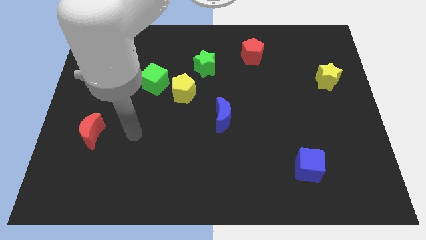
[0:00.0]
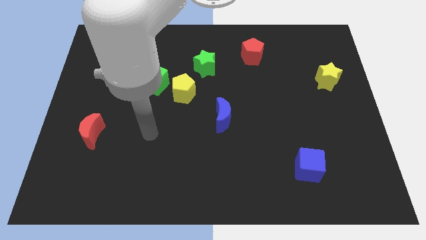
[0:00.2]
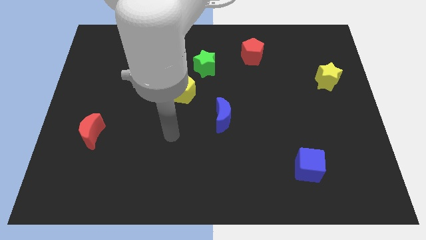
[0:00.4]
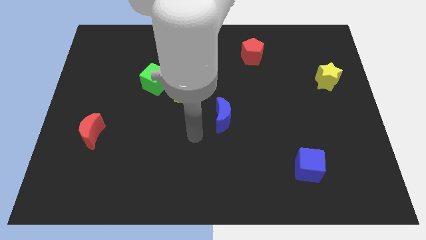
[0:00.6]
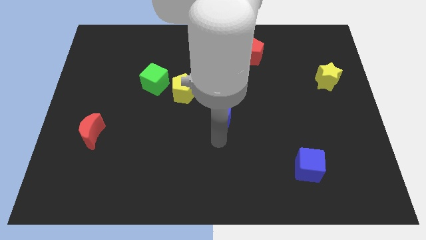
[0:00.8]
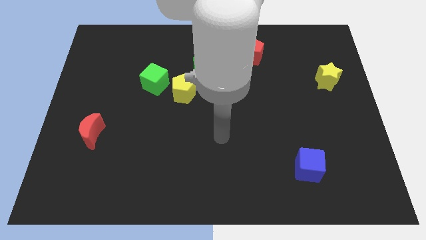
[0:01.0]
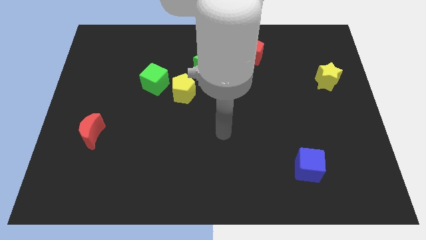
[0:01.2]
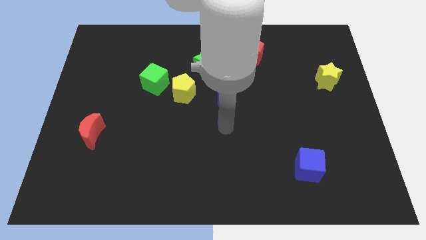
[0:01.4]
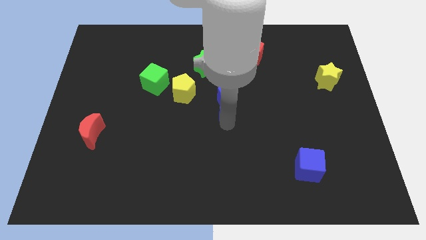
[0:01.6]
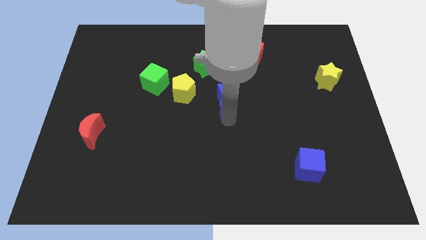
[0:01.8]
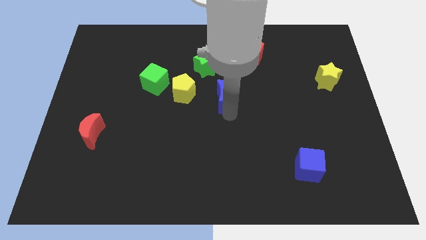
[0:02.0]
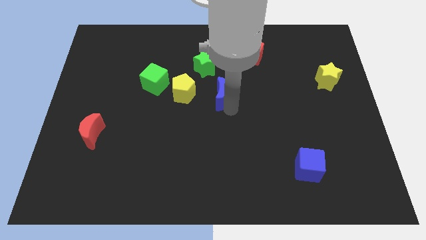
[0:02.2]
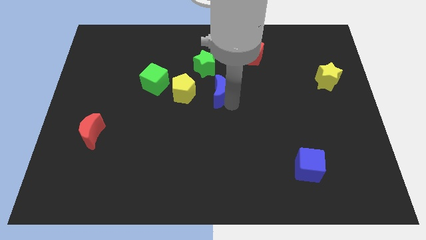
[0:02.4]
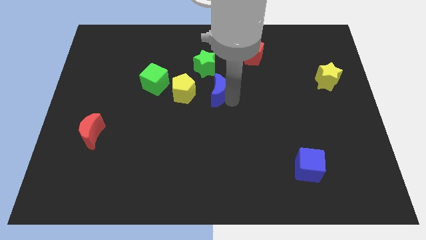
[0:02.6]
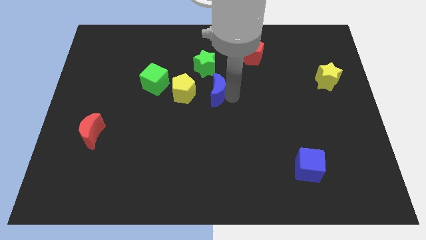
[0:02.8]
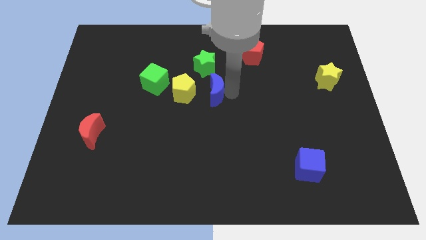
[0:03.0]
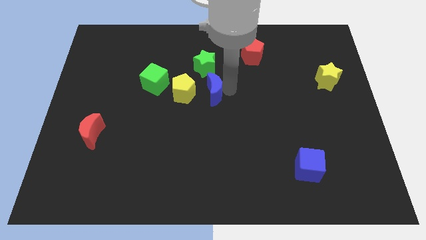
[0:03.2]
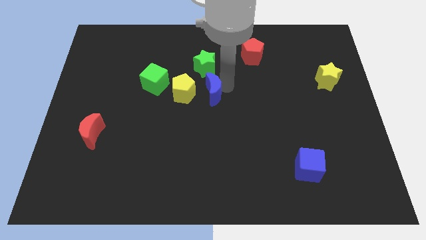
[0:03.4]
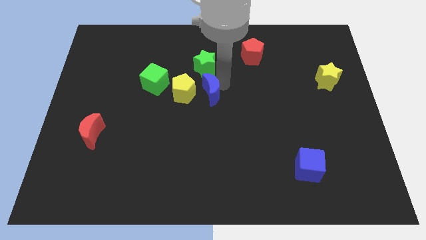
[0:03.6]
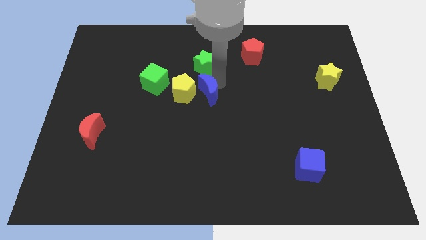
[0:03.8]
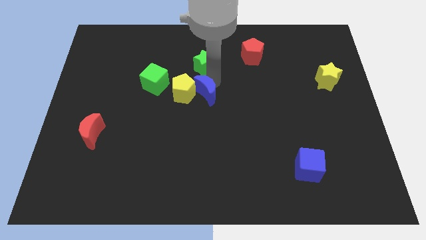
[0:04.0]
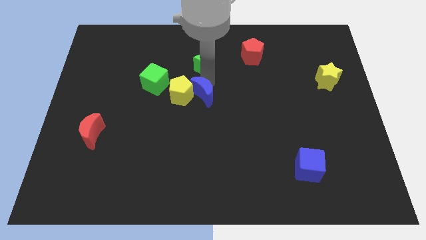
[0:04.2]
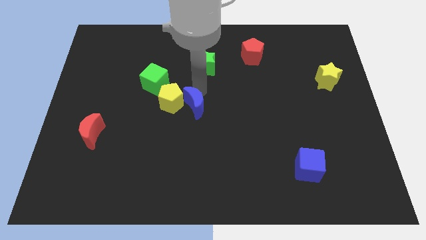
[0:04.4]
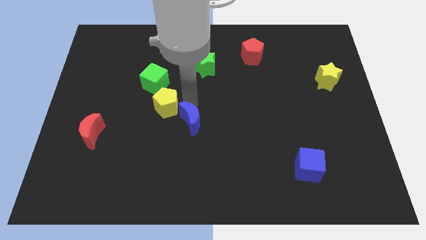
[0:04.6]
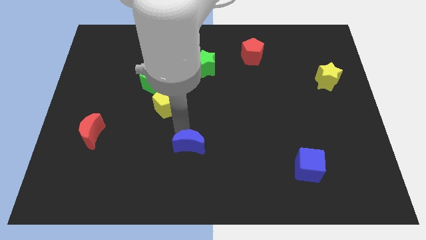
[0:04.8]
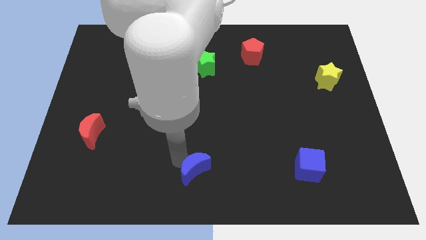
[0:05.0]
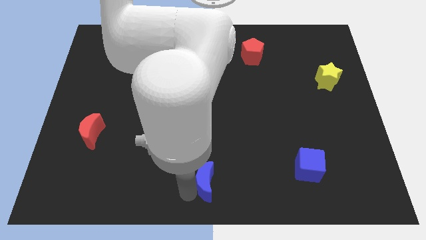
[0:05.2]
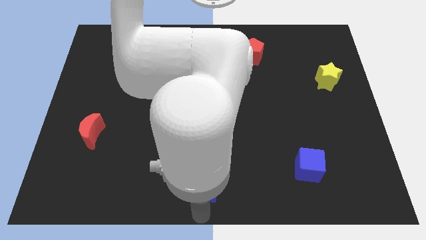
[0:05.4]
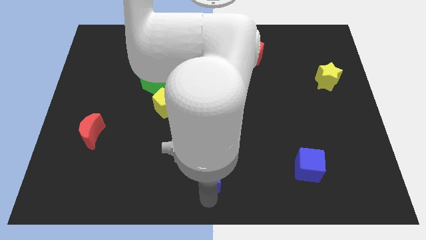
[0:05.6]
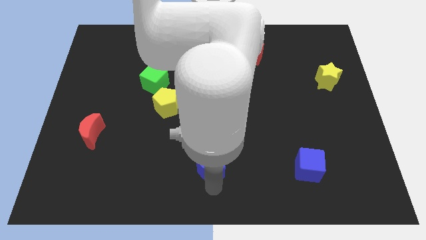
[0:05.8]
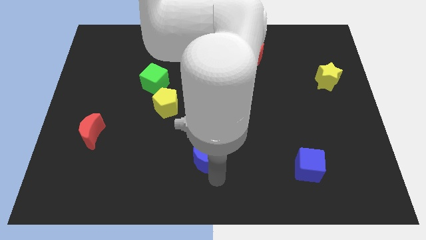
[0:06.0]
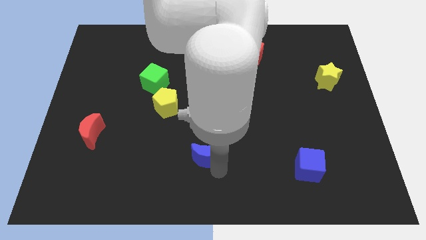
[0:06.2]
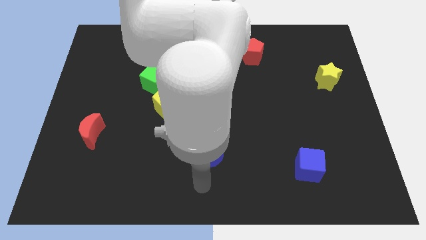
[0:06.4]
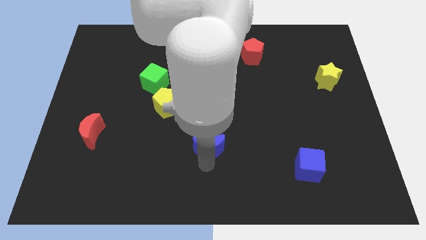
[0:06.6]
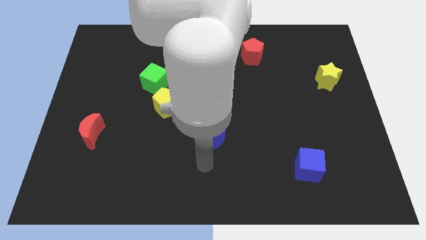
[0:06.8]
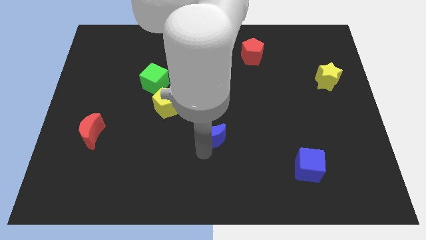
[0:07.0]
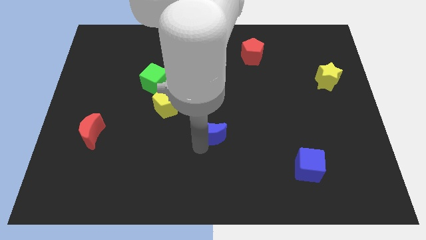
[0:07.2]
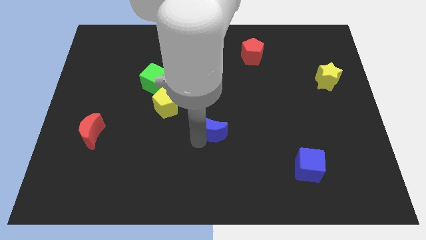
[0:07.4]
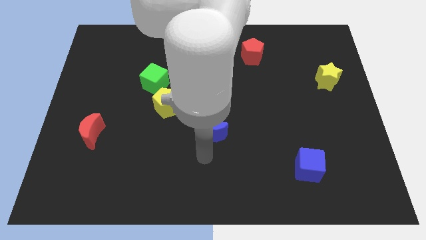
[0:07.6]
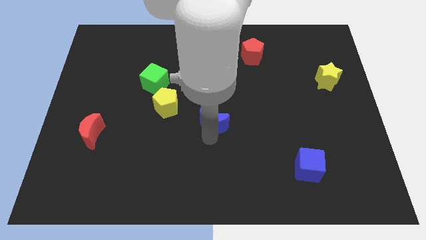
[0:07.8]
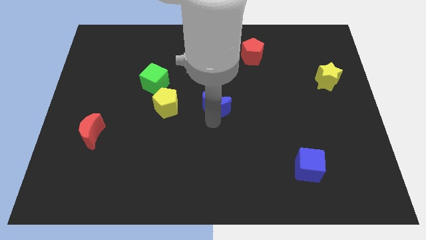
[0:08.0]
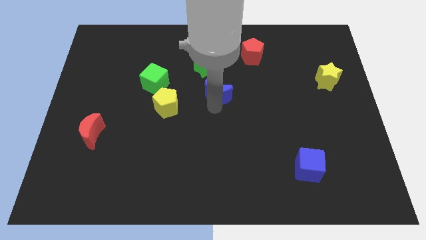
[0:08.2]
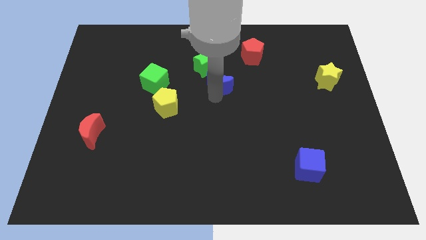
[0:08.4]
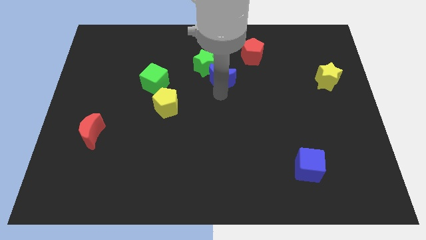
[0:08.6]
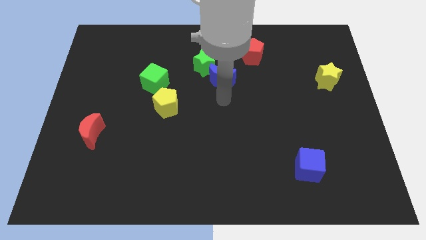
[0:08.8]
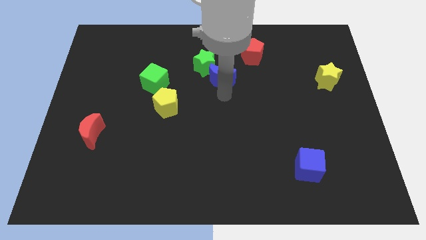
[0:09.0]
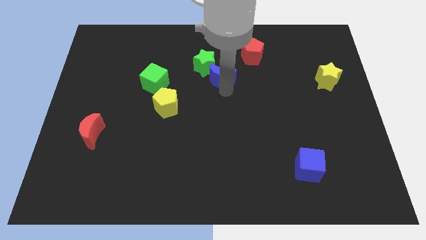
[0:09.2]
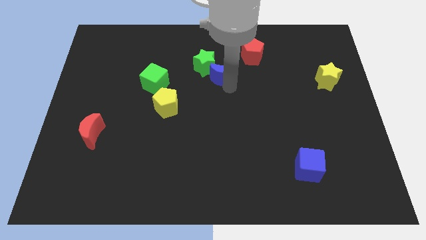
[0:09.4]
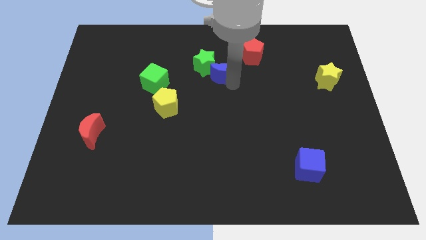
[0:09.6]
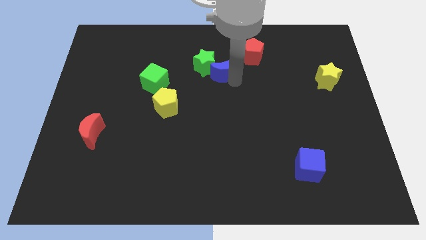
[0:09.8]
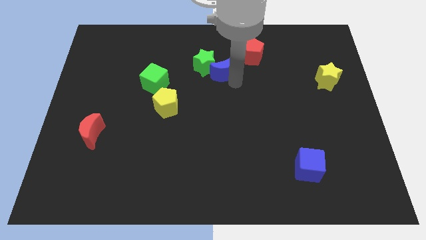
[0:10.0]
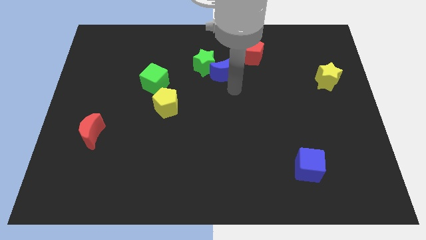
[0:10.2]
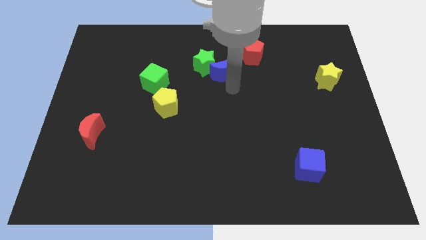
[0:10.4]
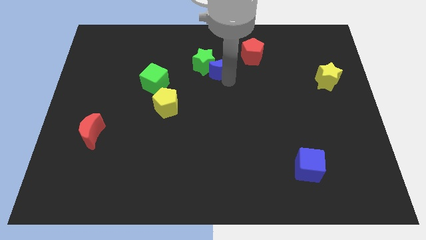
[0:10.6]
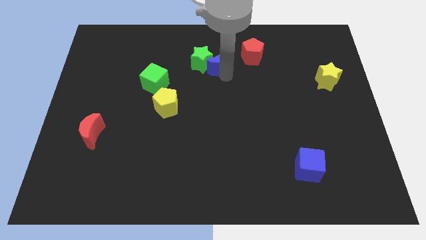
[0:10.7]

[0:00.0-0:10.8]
put the blue moon left of the red pentagon

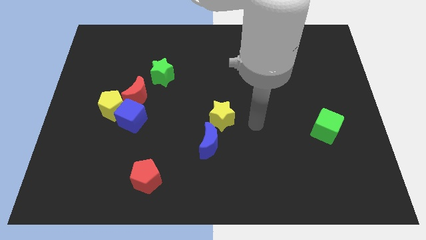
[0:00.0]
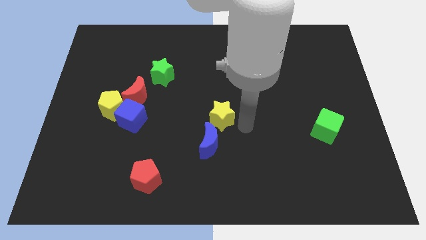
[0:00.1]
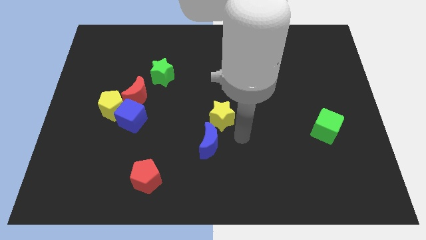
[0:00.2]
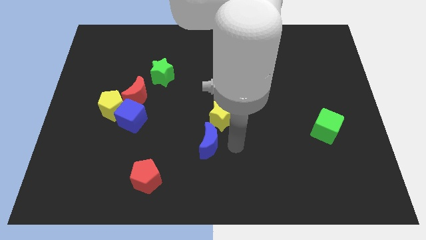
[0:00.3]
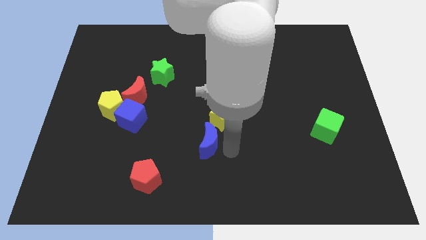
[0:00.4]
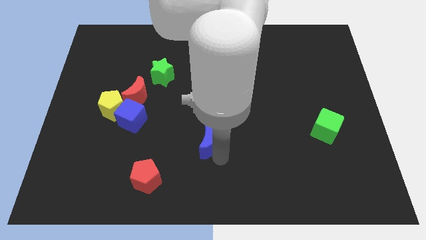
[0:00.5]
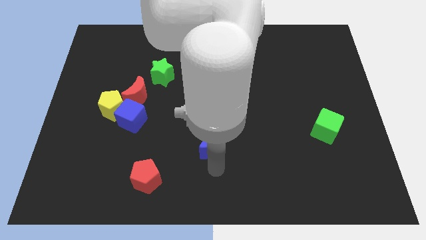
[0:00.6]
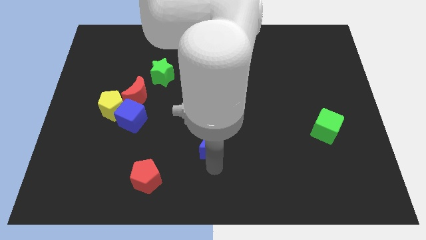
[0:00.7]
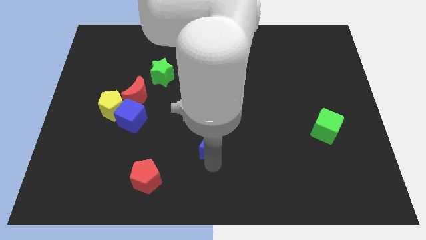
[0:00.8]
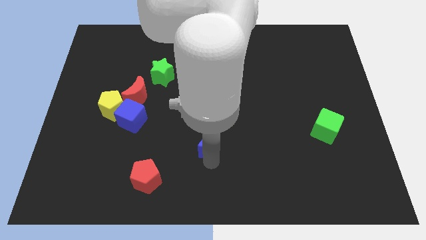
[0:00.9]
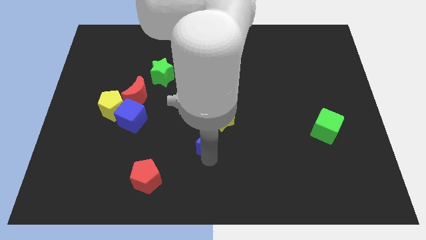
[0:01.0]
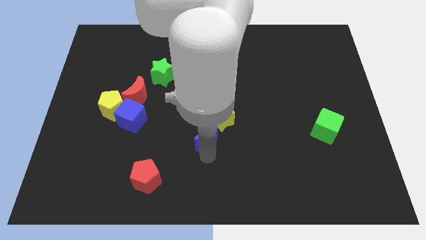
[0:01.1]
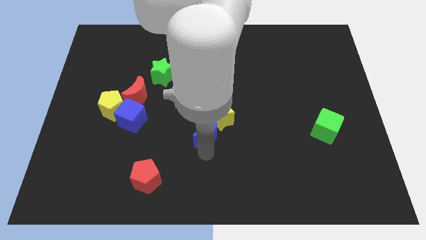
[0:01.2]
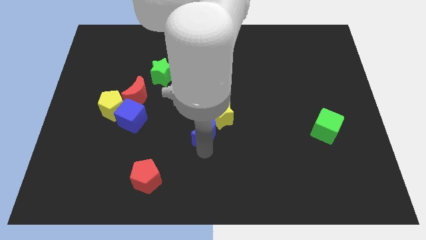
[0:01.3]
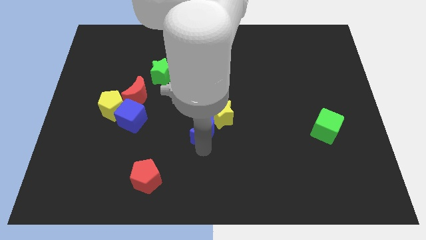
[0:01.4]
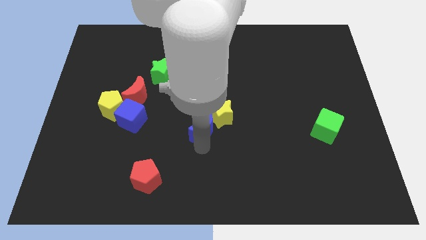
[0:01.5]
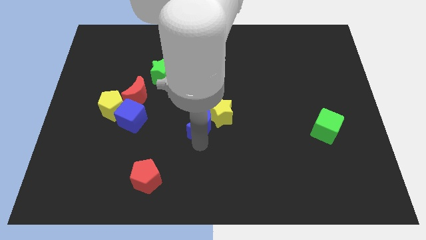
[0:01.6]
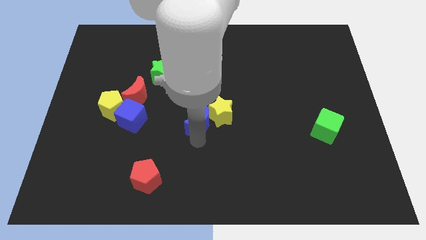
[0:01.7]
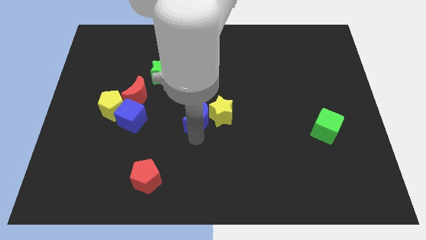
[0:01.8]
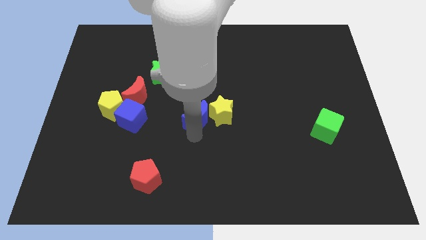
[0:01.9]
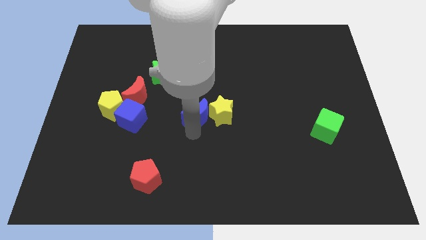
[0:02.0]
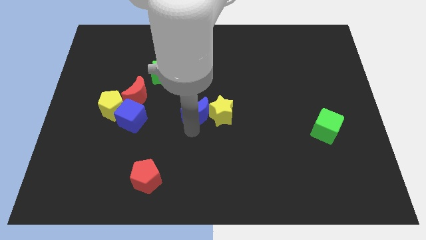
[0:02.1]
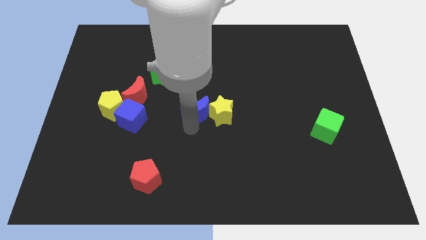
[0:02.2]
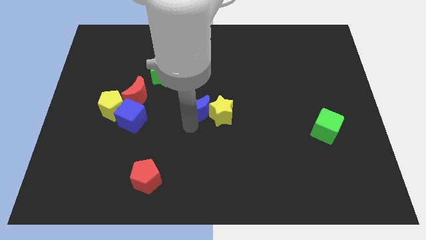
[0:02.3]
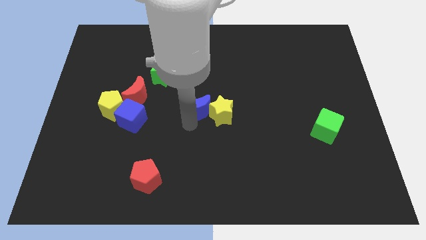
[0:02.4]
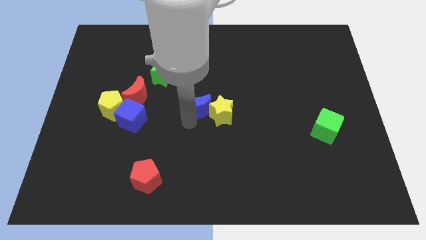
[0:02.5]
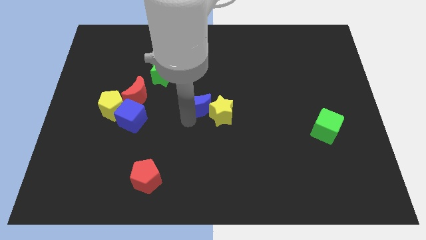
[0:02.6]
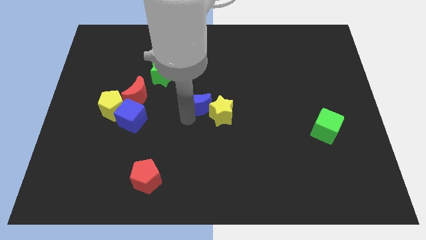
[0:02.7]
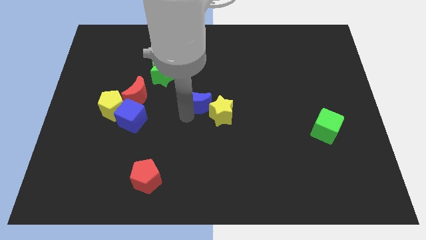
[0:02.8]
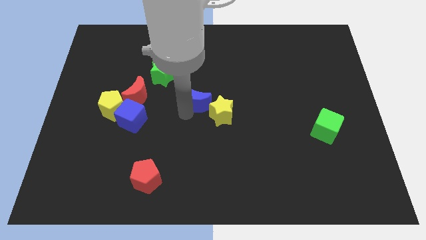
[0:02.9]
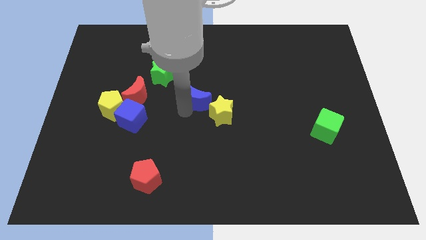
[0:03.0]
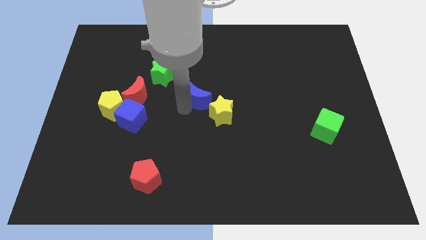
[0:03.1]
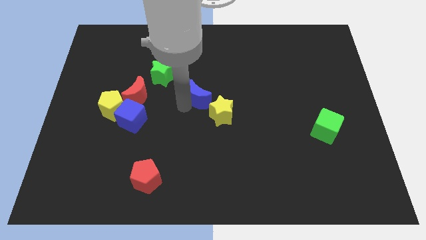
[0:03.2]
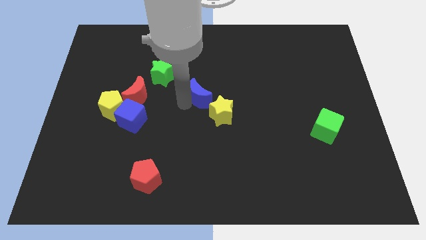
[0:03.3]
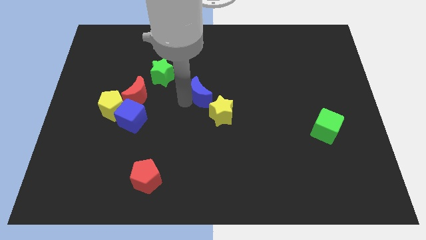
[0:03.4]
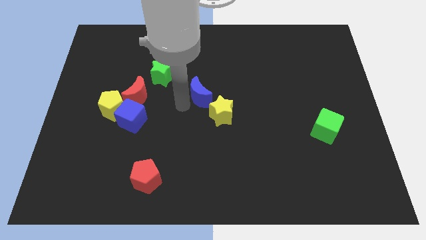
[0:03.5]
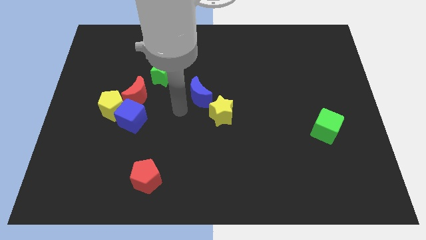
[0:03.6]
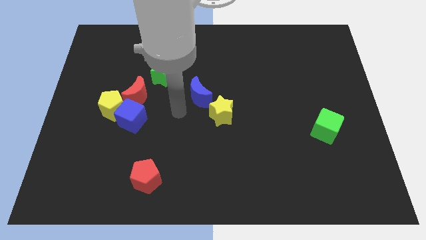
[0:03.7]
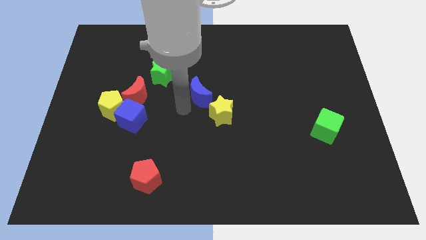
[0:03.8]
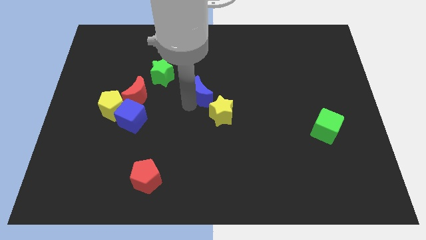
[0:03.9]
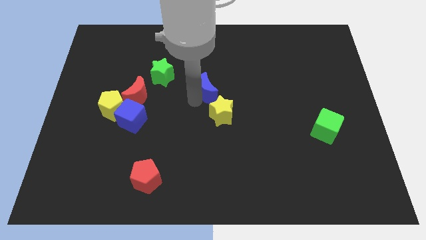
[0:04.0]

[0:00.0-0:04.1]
slide the blue moon to the top side of the yellow star
